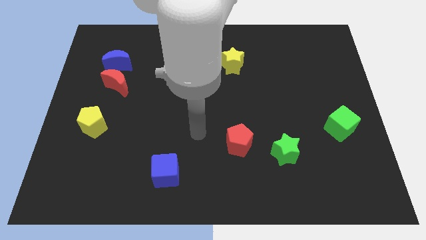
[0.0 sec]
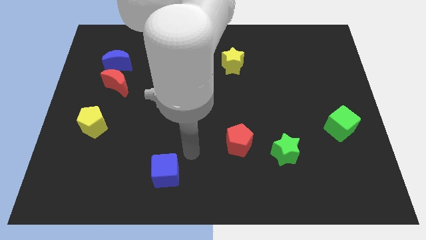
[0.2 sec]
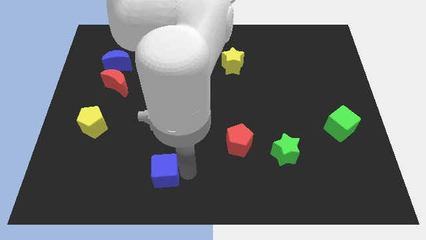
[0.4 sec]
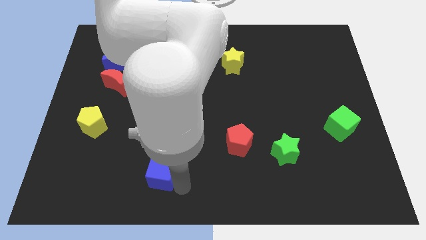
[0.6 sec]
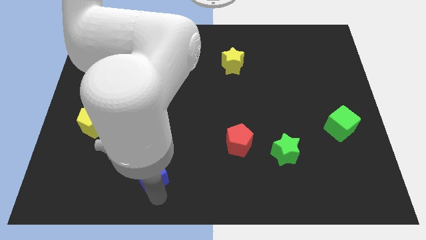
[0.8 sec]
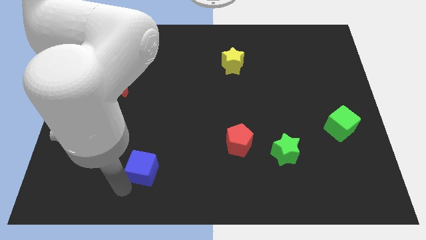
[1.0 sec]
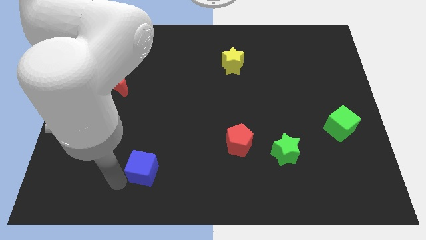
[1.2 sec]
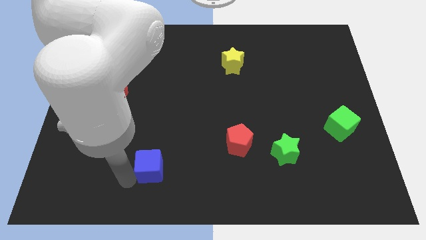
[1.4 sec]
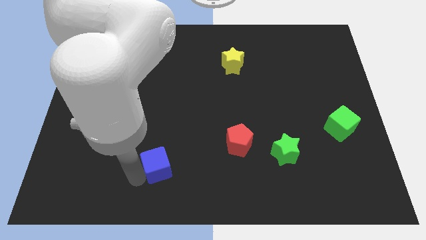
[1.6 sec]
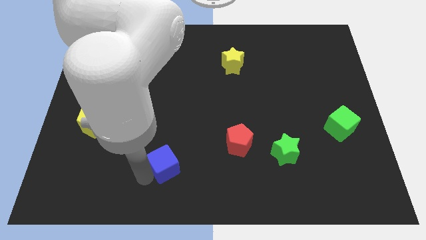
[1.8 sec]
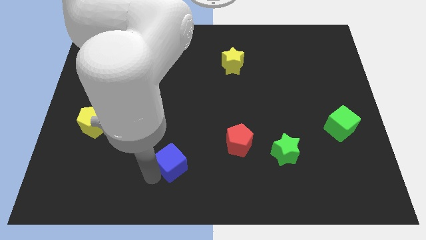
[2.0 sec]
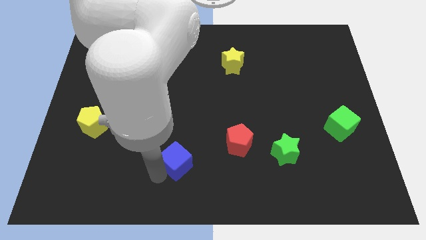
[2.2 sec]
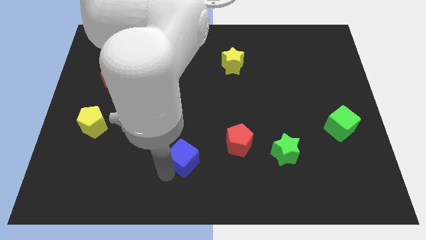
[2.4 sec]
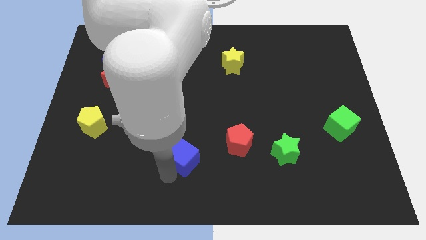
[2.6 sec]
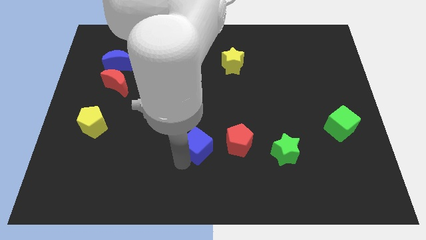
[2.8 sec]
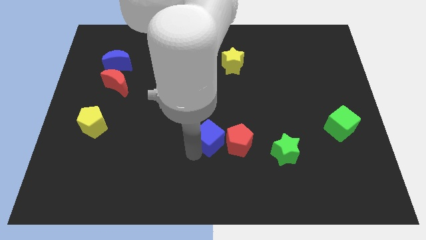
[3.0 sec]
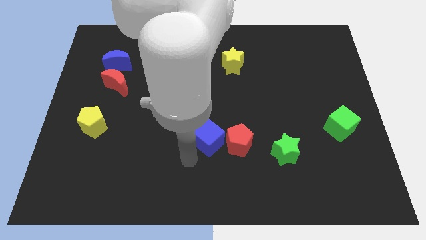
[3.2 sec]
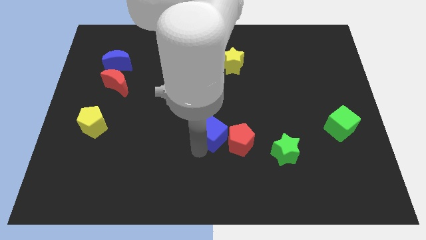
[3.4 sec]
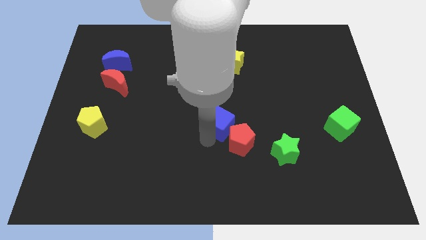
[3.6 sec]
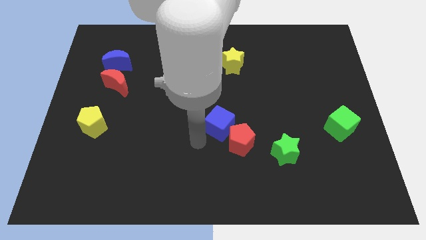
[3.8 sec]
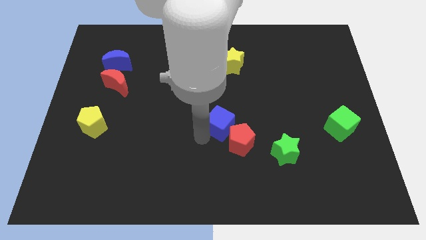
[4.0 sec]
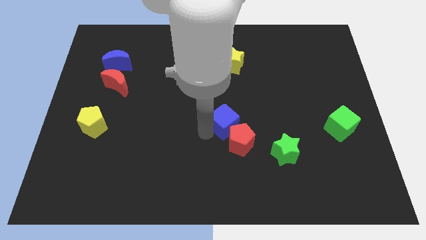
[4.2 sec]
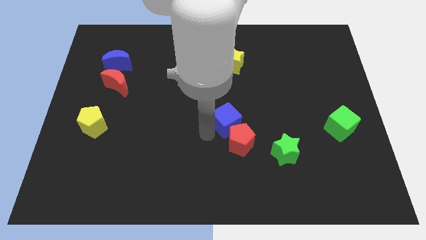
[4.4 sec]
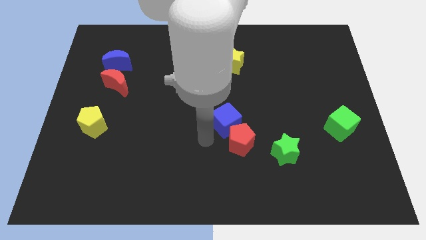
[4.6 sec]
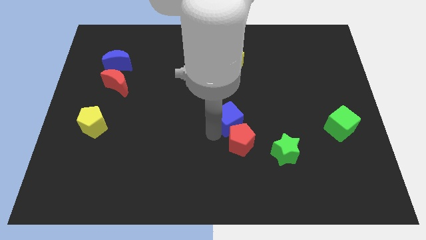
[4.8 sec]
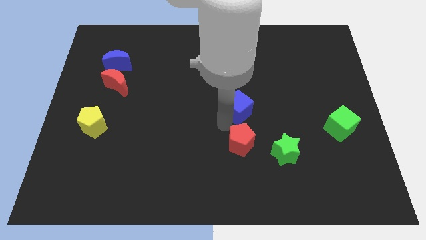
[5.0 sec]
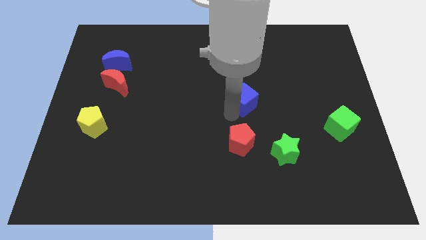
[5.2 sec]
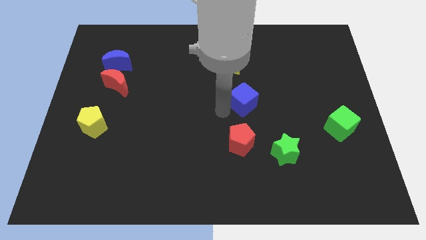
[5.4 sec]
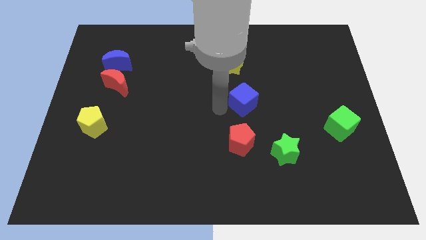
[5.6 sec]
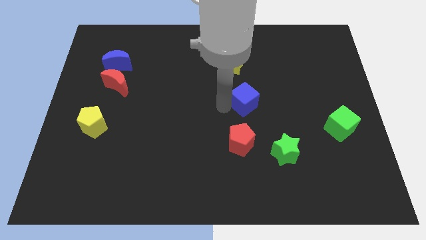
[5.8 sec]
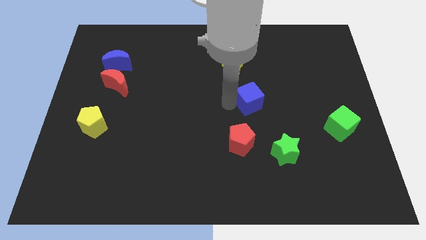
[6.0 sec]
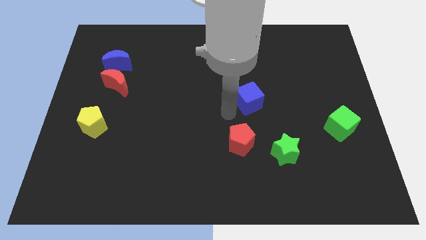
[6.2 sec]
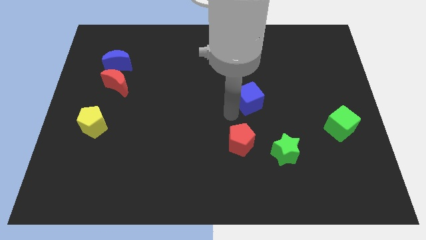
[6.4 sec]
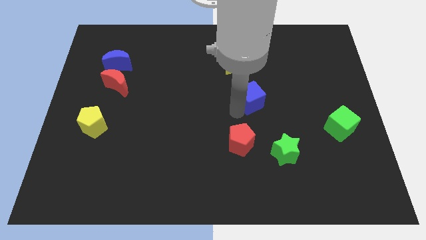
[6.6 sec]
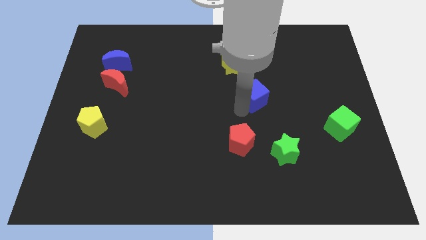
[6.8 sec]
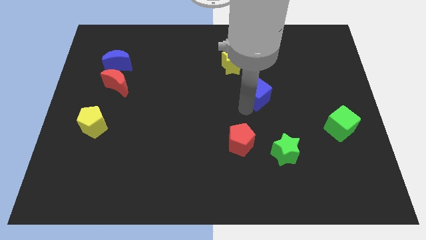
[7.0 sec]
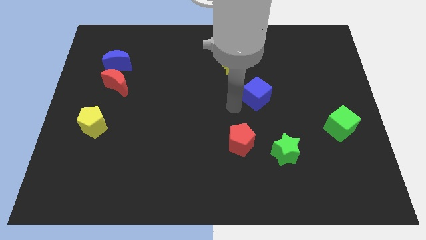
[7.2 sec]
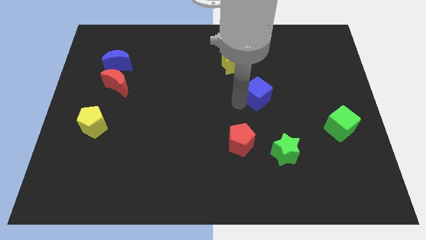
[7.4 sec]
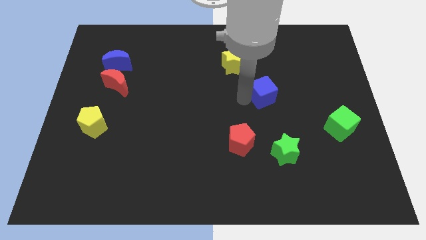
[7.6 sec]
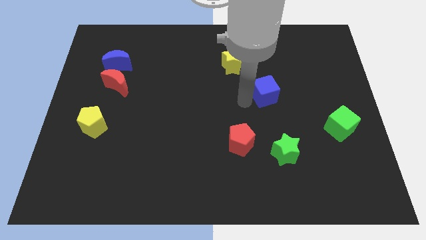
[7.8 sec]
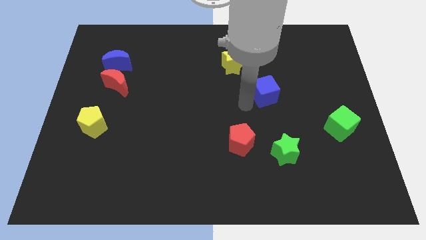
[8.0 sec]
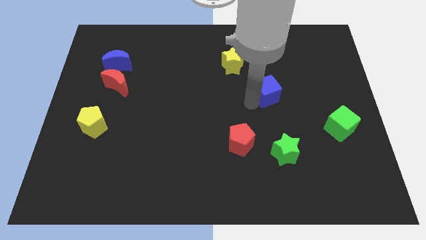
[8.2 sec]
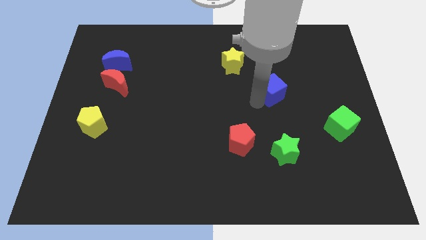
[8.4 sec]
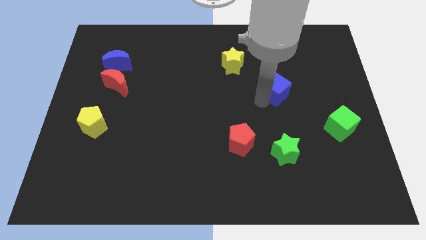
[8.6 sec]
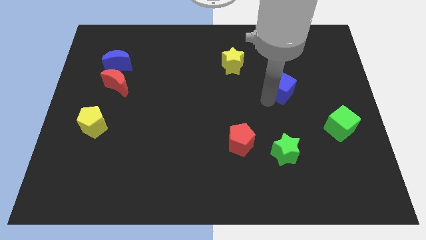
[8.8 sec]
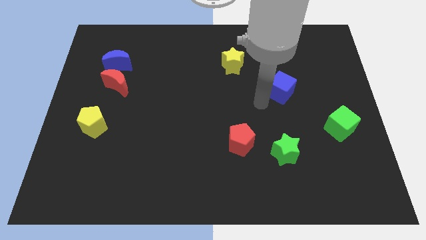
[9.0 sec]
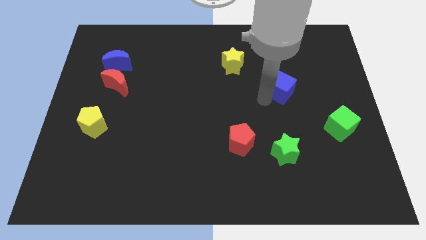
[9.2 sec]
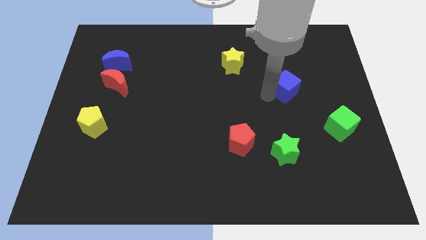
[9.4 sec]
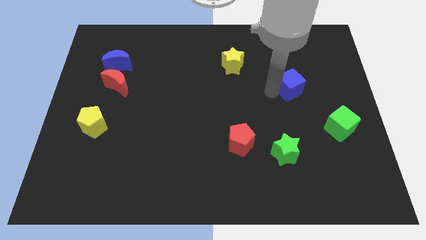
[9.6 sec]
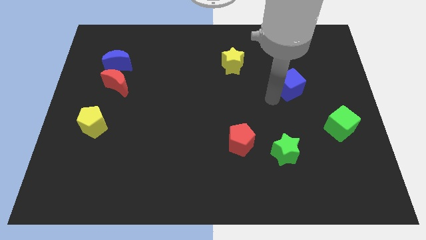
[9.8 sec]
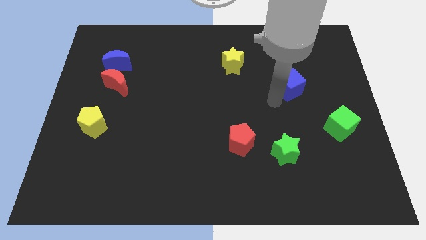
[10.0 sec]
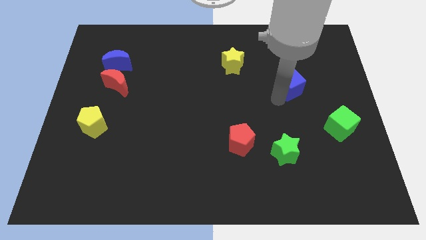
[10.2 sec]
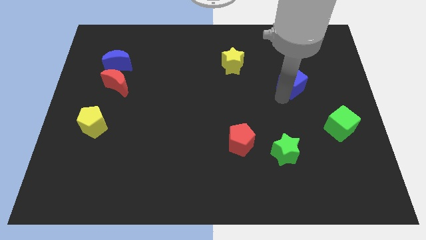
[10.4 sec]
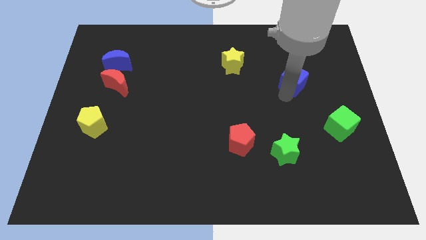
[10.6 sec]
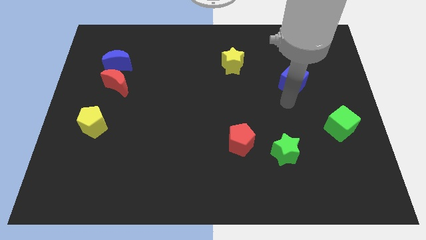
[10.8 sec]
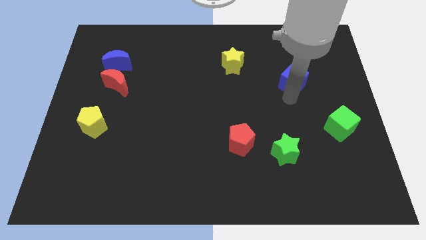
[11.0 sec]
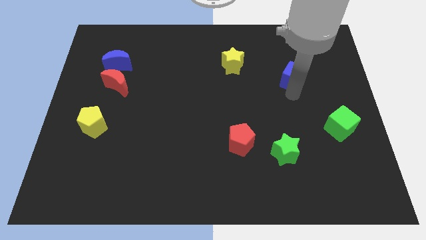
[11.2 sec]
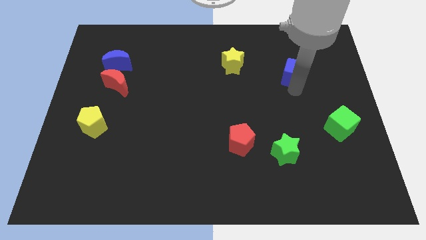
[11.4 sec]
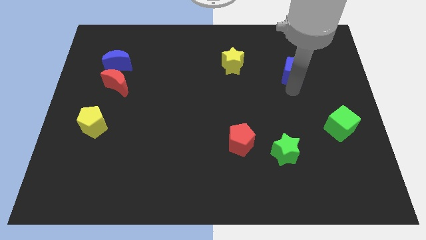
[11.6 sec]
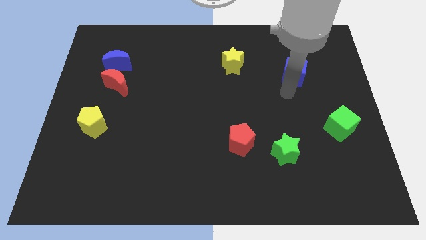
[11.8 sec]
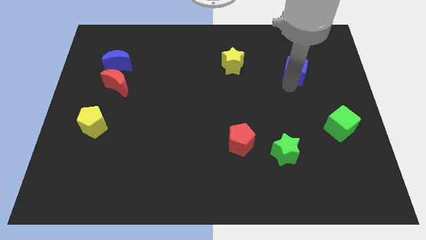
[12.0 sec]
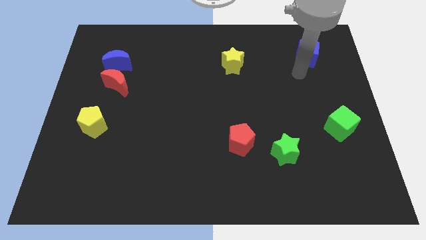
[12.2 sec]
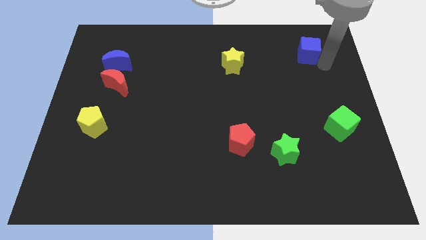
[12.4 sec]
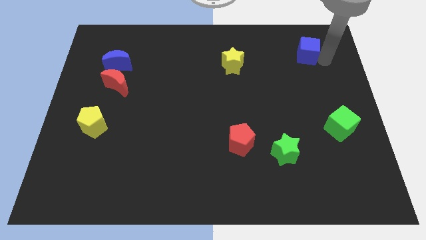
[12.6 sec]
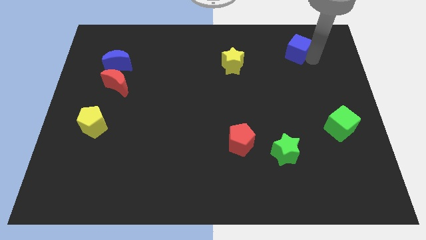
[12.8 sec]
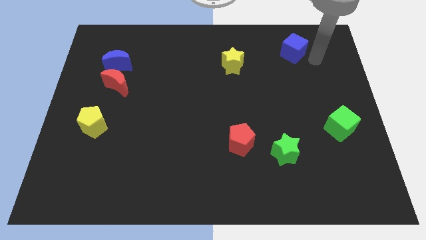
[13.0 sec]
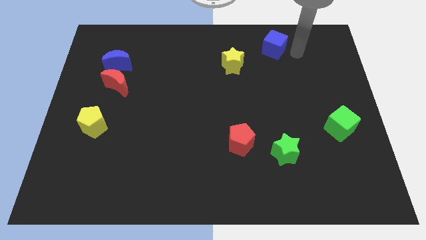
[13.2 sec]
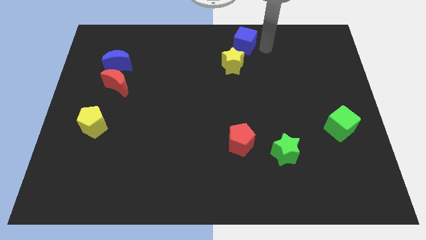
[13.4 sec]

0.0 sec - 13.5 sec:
put the blue cube to the top
